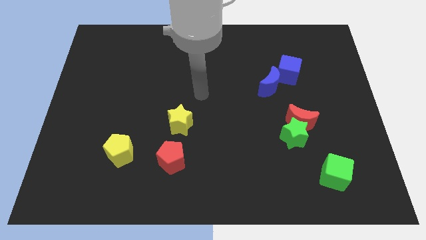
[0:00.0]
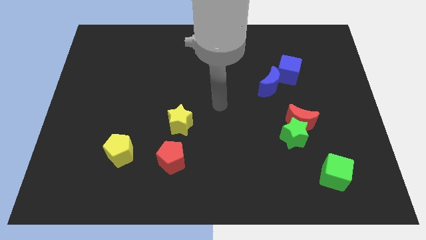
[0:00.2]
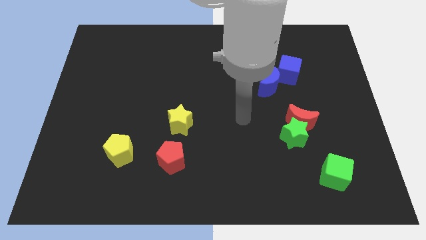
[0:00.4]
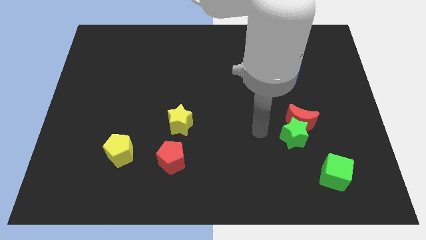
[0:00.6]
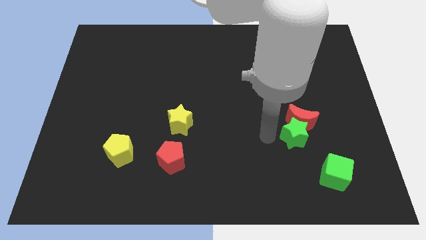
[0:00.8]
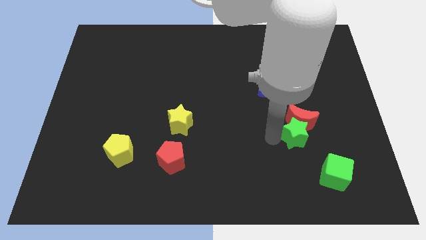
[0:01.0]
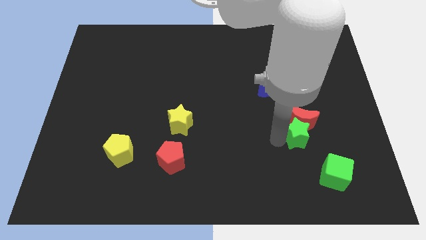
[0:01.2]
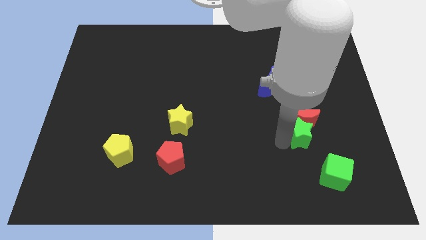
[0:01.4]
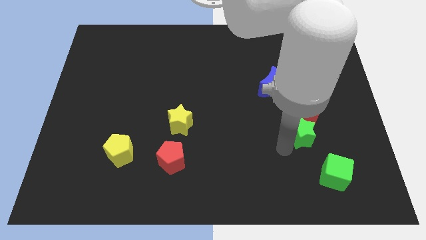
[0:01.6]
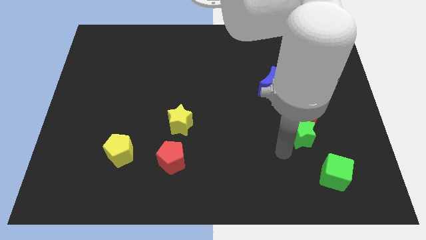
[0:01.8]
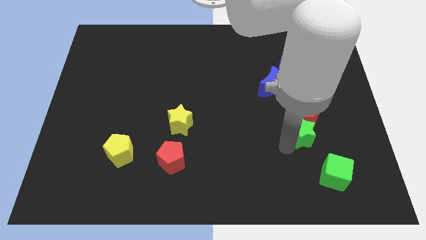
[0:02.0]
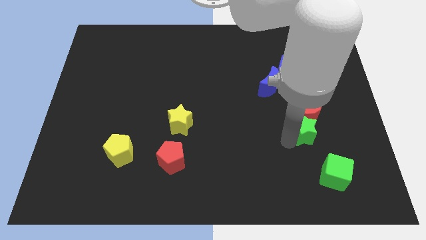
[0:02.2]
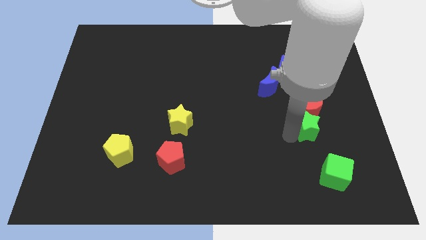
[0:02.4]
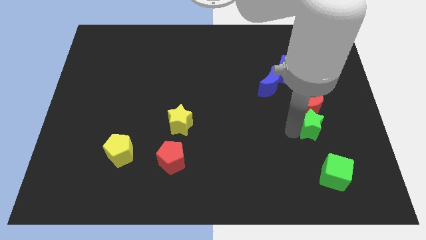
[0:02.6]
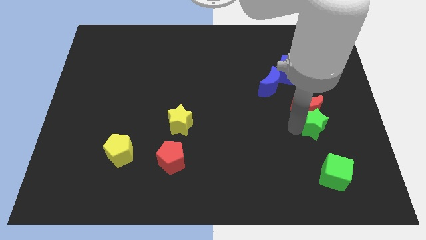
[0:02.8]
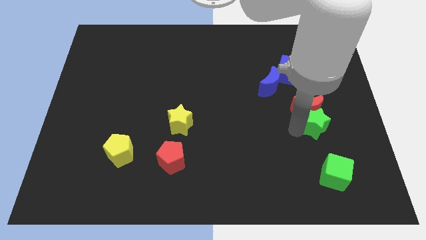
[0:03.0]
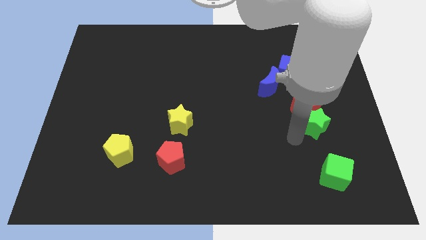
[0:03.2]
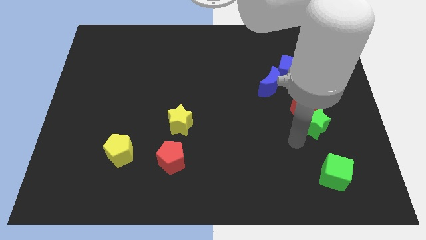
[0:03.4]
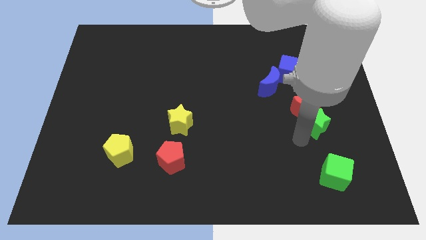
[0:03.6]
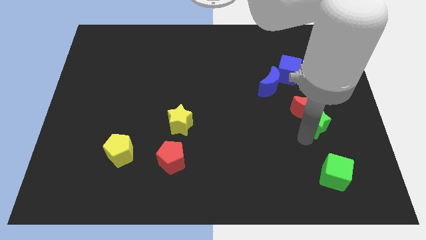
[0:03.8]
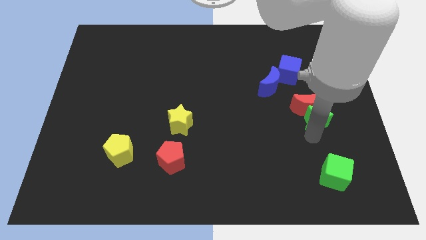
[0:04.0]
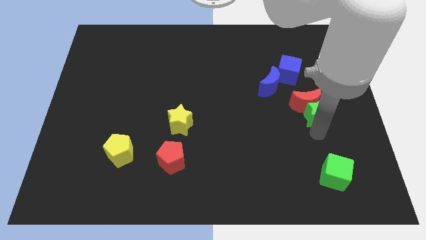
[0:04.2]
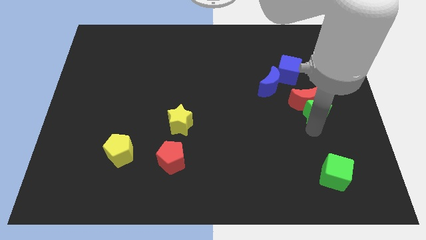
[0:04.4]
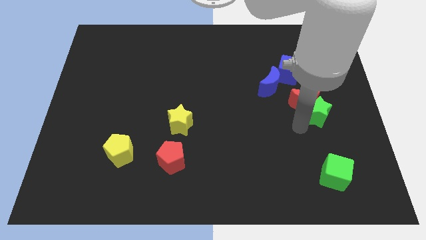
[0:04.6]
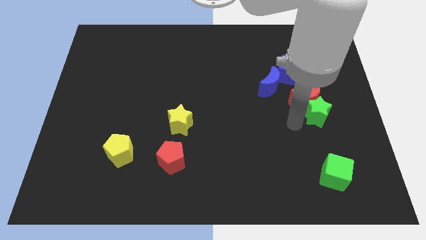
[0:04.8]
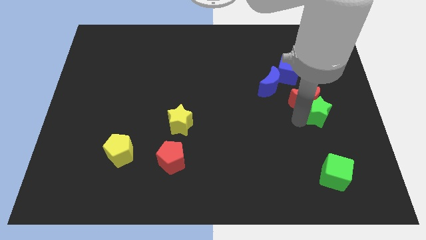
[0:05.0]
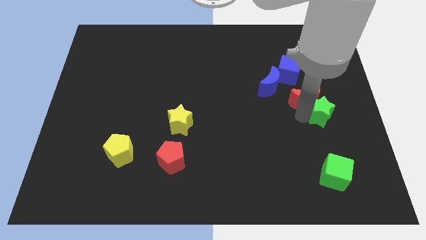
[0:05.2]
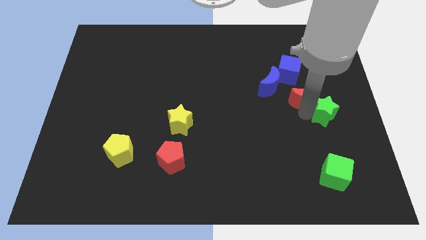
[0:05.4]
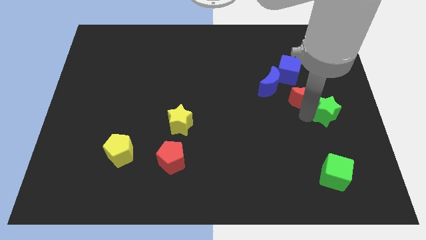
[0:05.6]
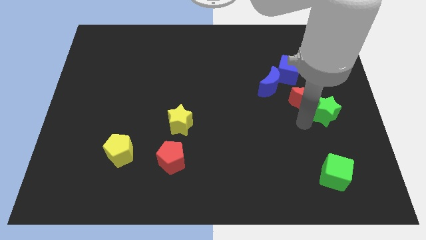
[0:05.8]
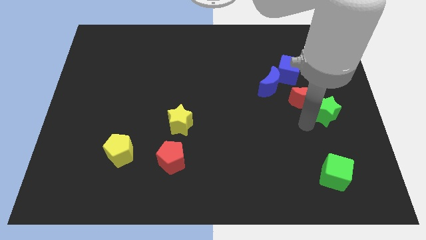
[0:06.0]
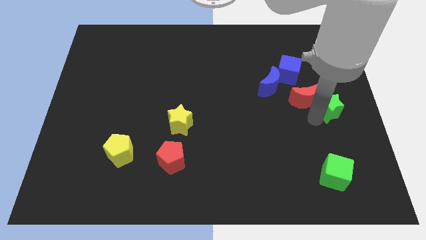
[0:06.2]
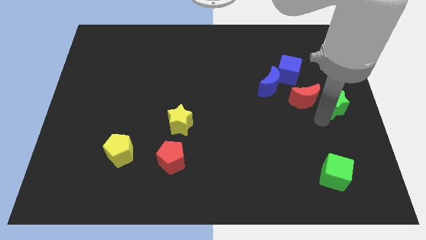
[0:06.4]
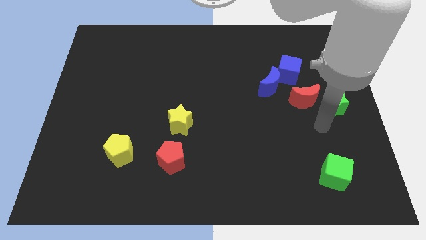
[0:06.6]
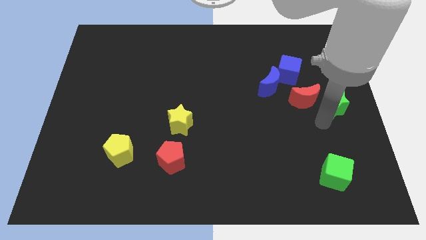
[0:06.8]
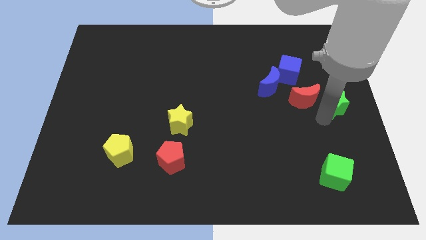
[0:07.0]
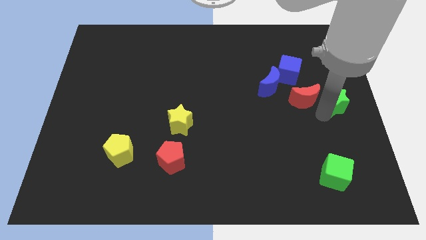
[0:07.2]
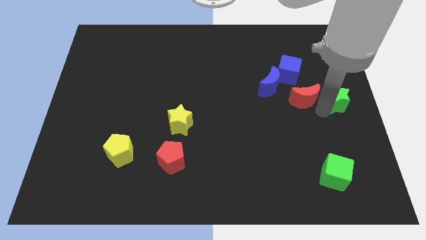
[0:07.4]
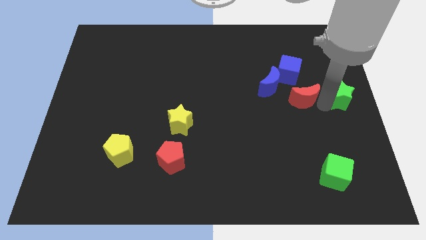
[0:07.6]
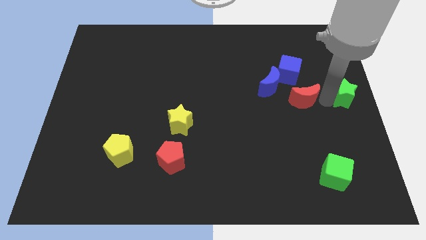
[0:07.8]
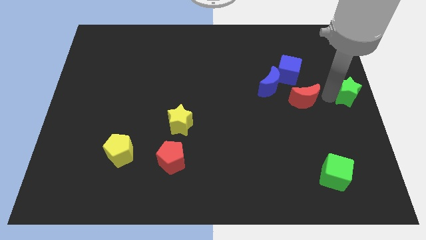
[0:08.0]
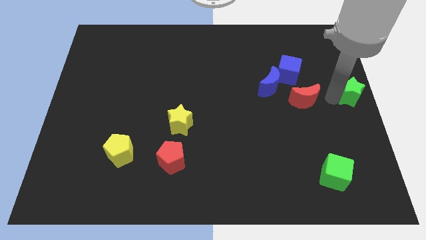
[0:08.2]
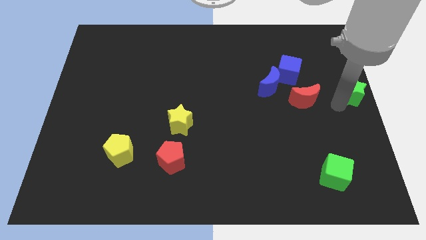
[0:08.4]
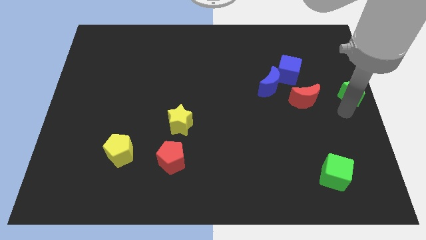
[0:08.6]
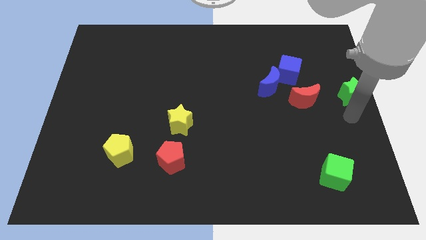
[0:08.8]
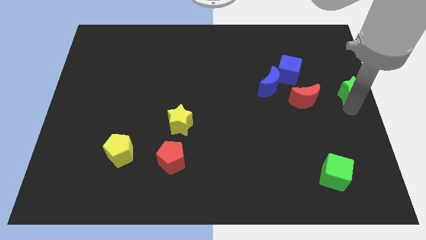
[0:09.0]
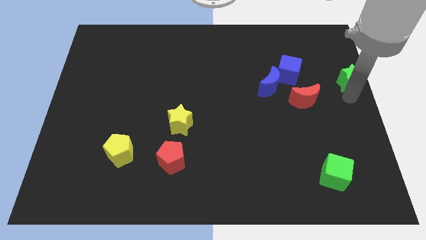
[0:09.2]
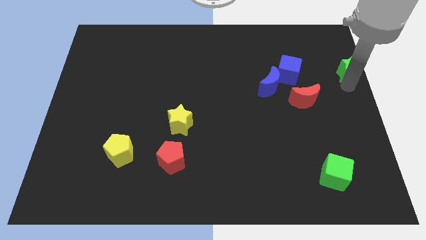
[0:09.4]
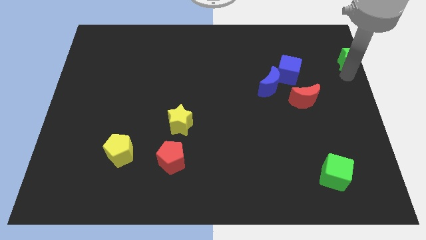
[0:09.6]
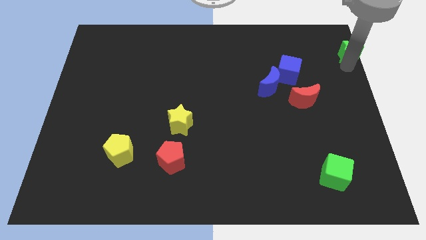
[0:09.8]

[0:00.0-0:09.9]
move the green star to the top right of the board

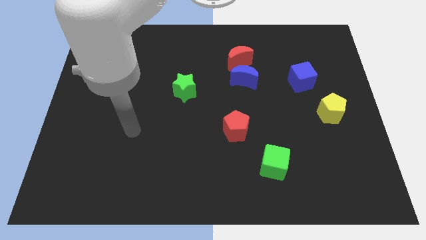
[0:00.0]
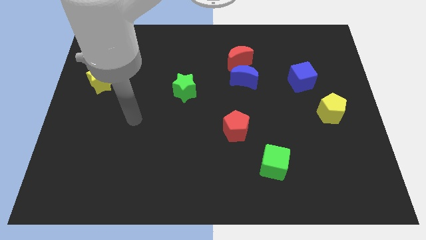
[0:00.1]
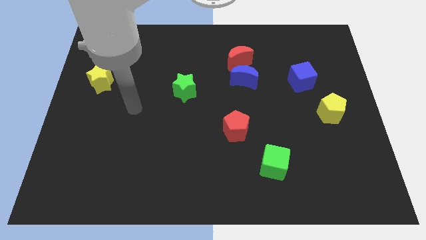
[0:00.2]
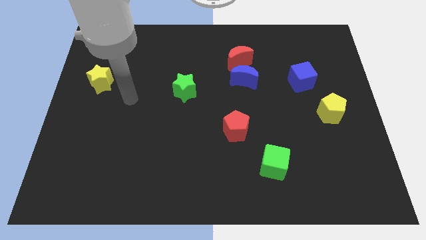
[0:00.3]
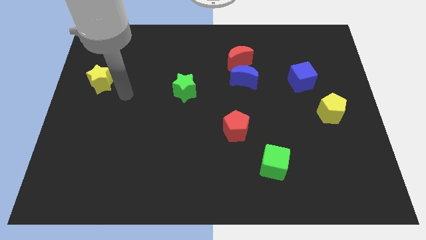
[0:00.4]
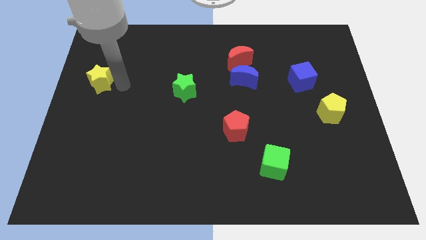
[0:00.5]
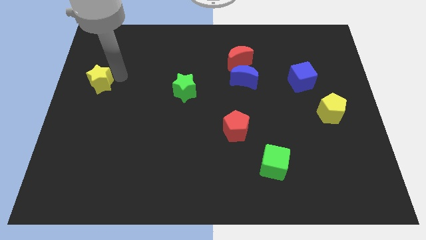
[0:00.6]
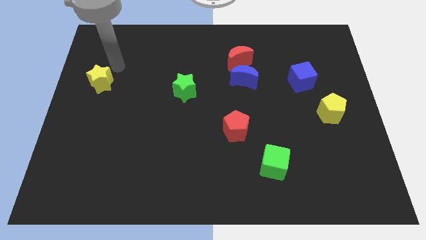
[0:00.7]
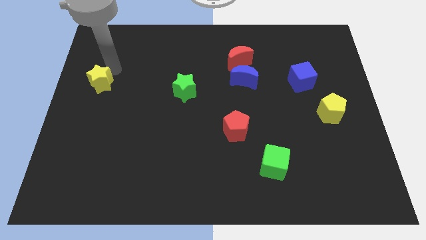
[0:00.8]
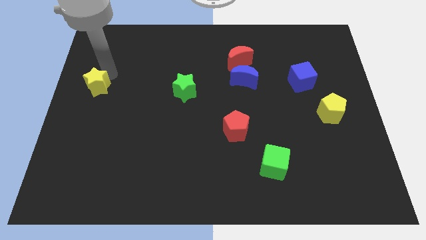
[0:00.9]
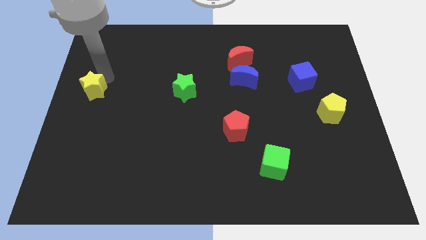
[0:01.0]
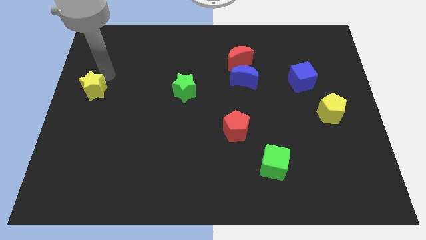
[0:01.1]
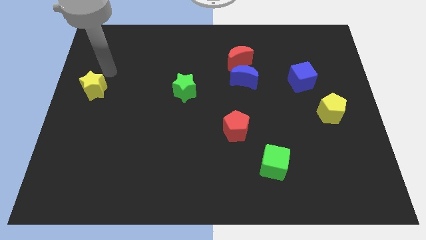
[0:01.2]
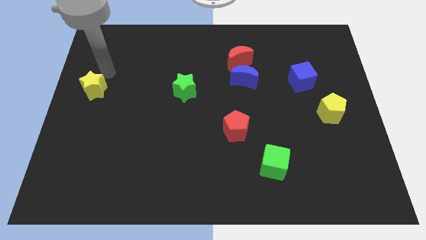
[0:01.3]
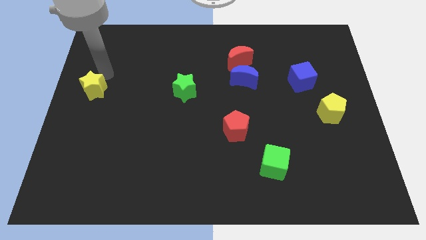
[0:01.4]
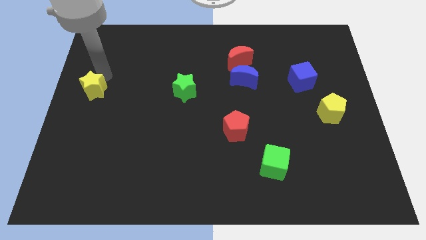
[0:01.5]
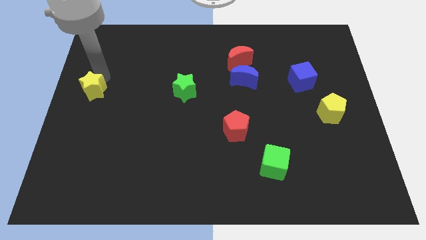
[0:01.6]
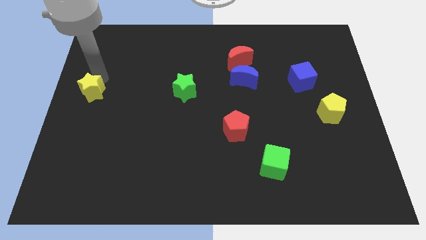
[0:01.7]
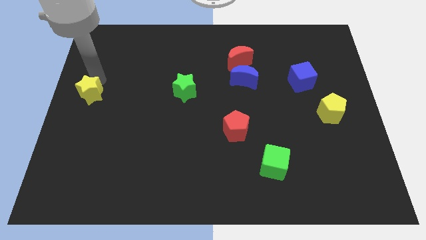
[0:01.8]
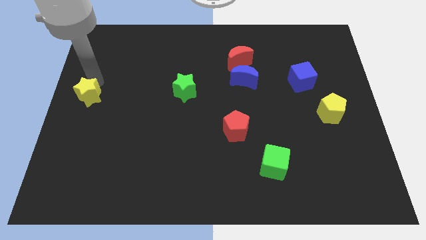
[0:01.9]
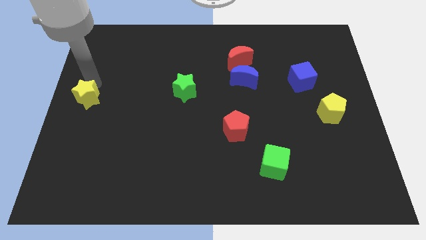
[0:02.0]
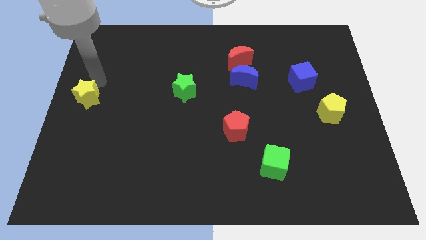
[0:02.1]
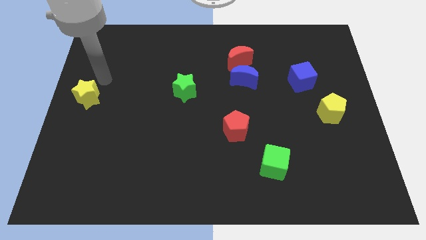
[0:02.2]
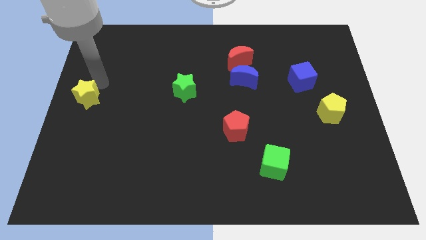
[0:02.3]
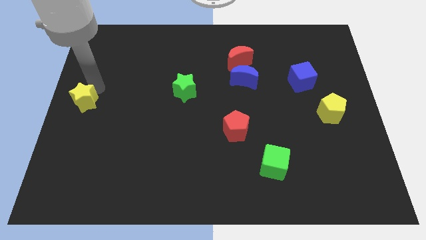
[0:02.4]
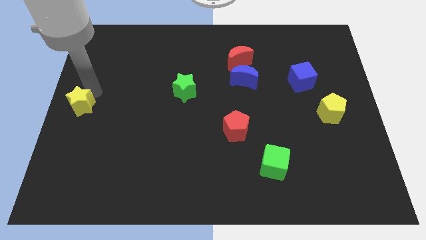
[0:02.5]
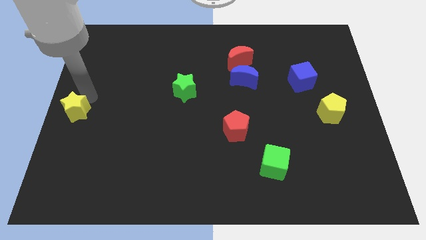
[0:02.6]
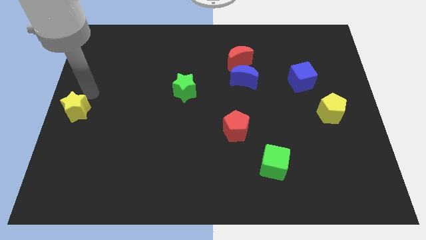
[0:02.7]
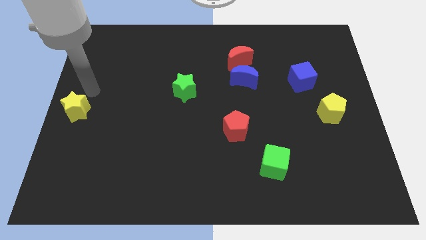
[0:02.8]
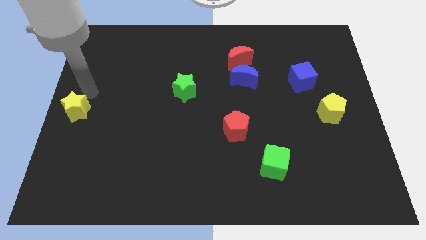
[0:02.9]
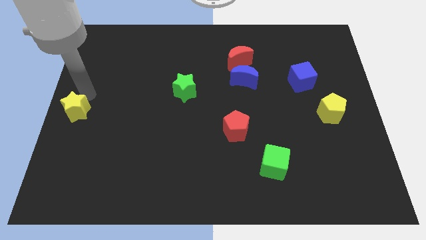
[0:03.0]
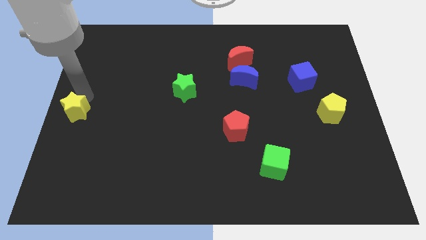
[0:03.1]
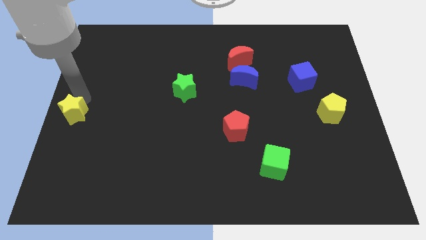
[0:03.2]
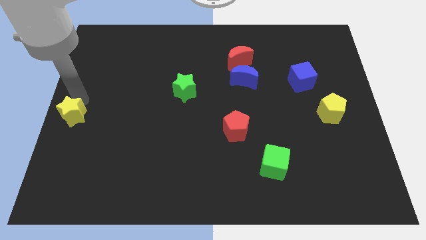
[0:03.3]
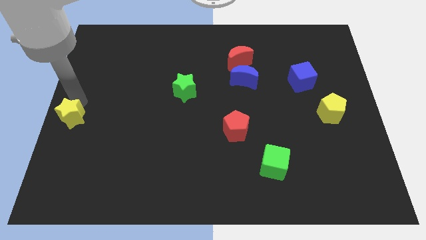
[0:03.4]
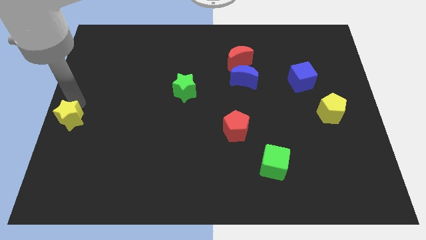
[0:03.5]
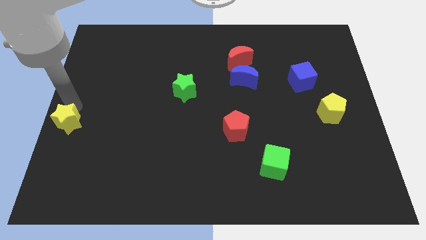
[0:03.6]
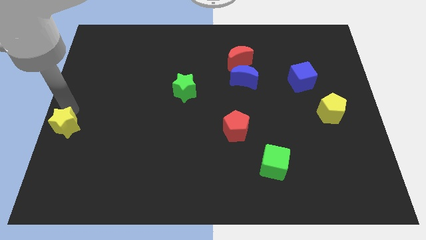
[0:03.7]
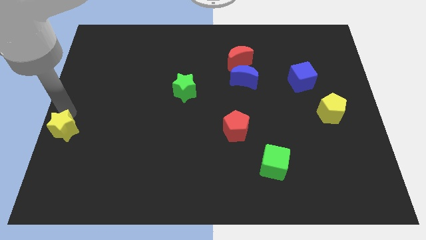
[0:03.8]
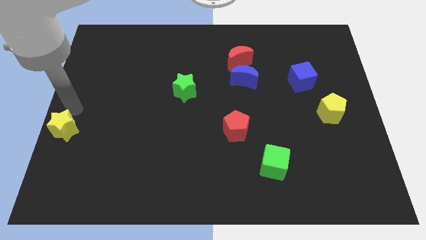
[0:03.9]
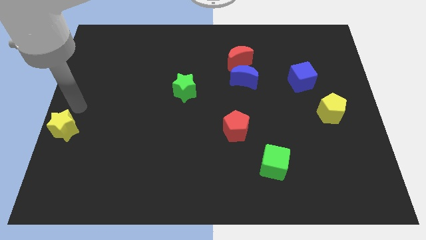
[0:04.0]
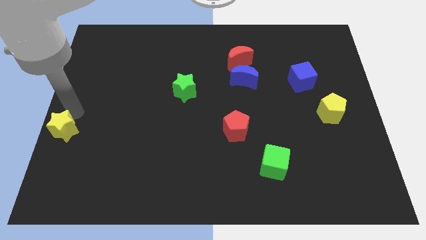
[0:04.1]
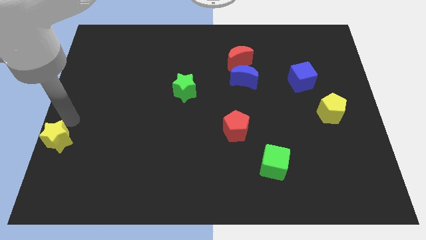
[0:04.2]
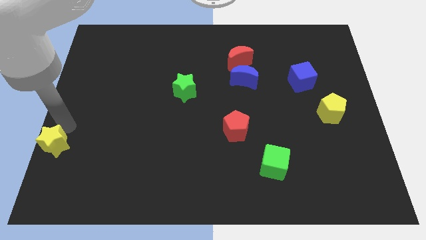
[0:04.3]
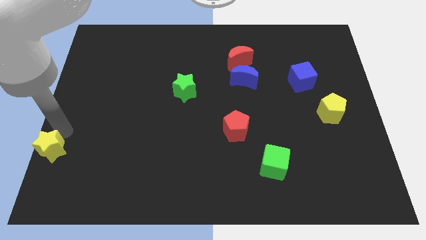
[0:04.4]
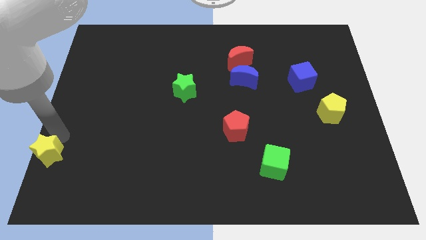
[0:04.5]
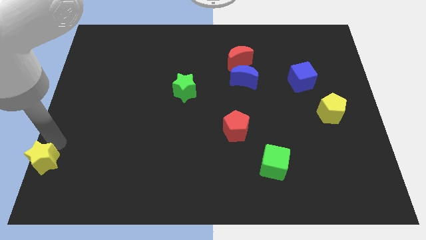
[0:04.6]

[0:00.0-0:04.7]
move the yellow star to the bottom left
